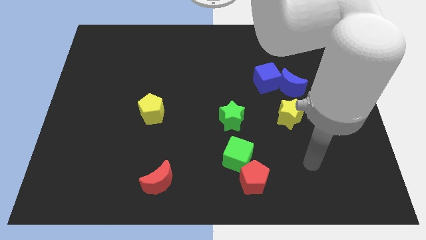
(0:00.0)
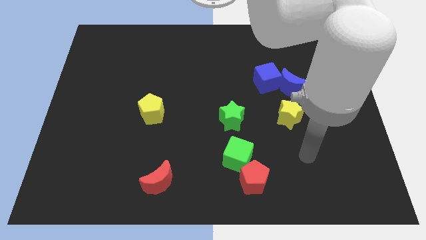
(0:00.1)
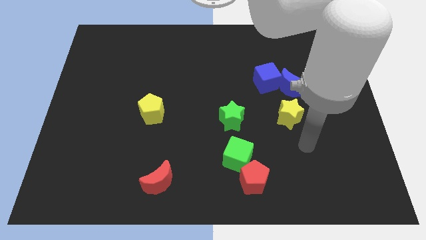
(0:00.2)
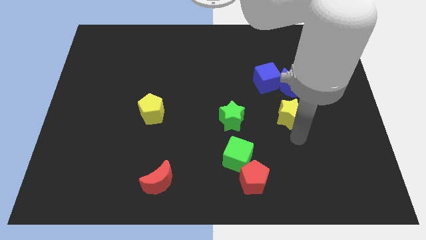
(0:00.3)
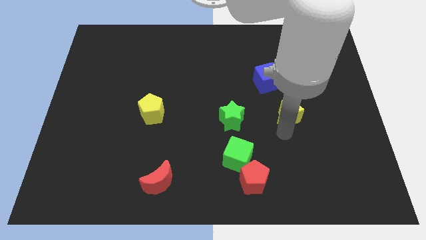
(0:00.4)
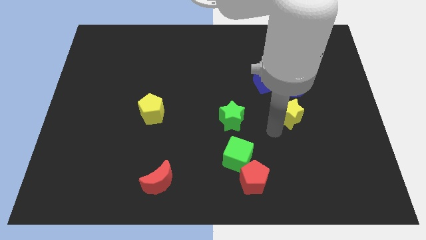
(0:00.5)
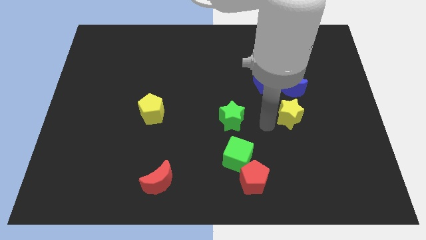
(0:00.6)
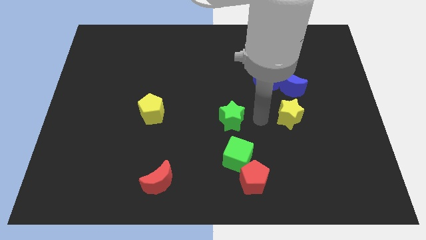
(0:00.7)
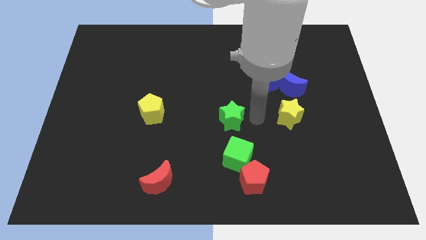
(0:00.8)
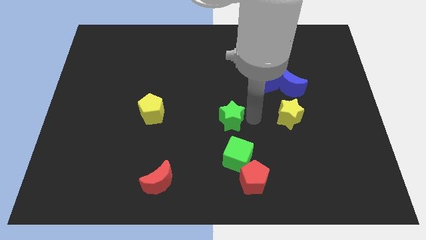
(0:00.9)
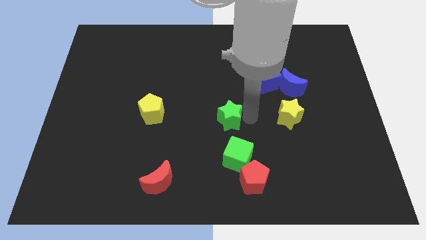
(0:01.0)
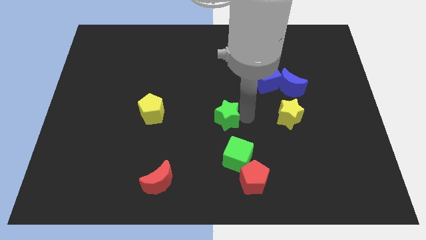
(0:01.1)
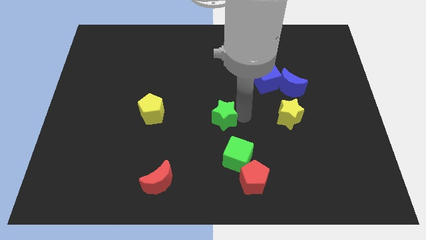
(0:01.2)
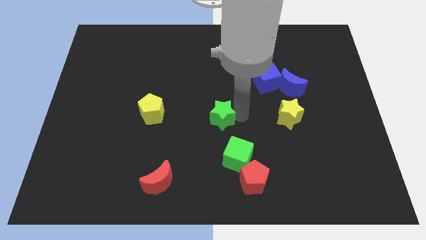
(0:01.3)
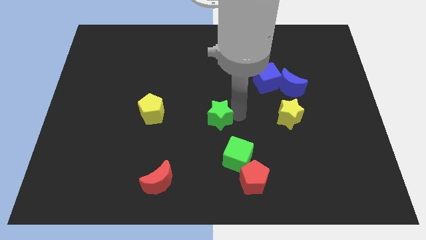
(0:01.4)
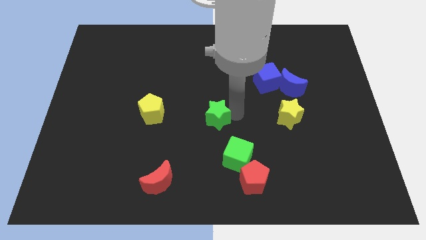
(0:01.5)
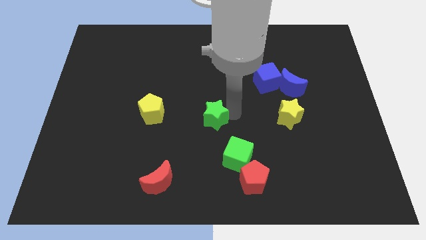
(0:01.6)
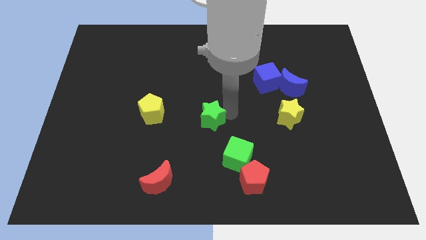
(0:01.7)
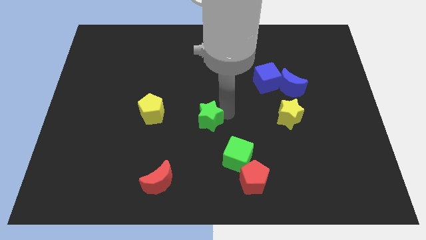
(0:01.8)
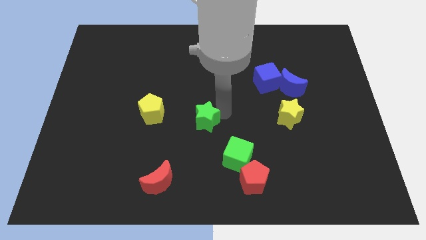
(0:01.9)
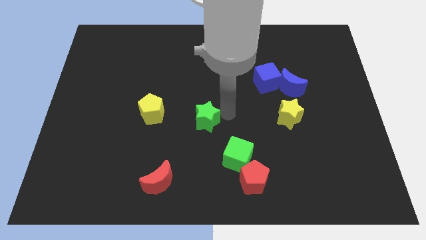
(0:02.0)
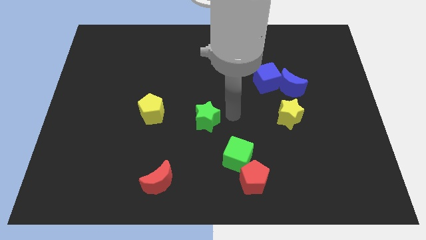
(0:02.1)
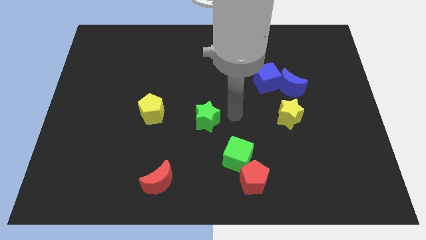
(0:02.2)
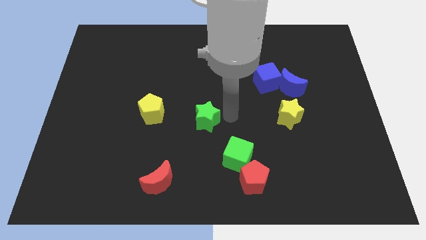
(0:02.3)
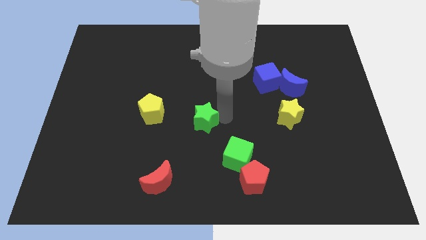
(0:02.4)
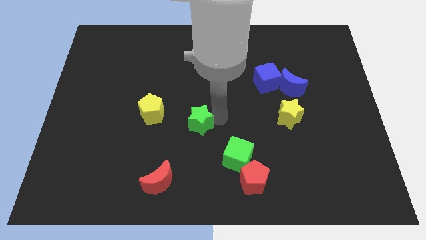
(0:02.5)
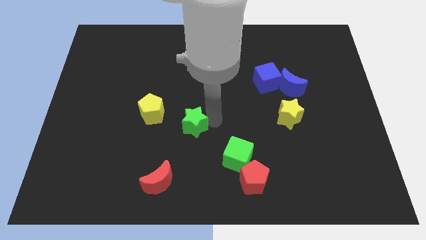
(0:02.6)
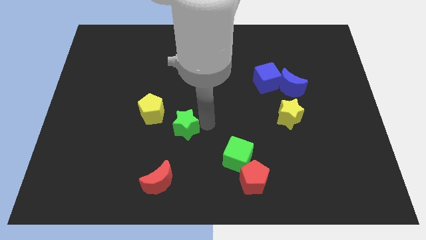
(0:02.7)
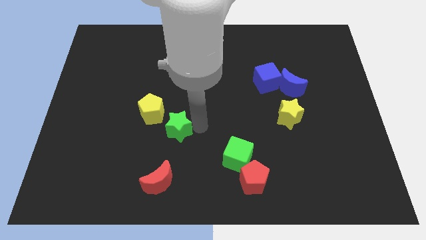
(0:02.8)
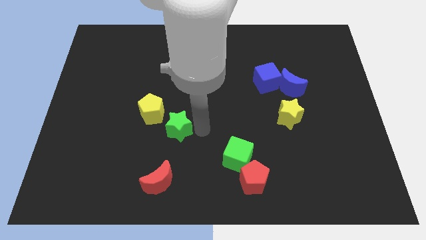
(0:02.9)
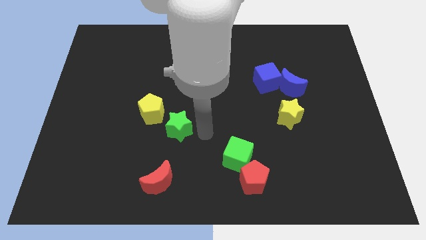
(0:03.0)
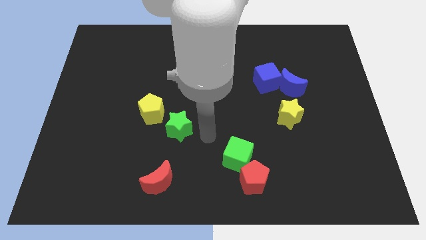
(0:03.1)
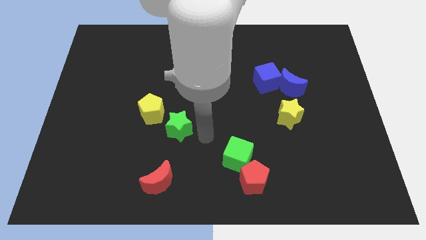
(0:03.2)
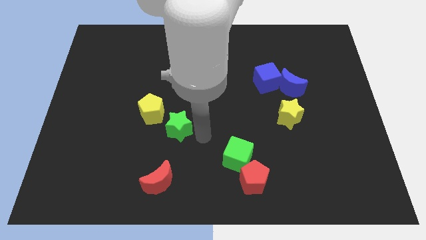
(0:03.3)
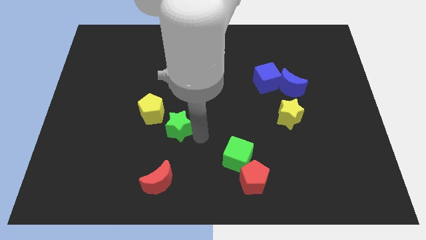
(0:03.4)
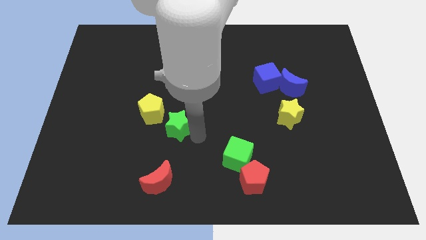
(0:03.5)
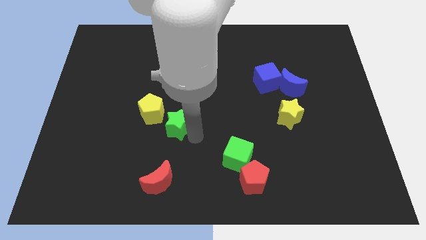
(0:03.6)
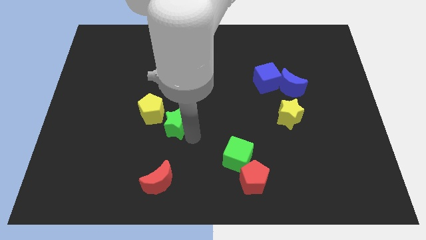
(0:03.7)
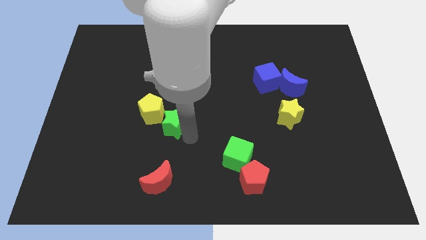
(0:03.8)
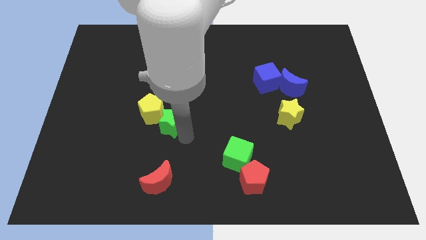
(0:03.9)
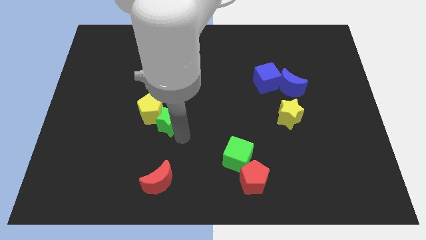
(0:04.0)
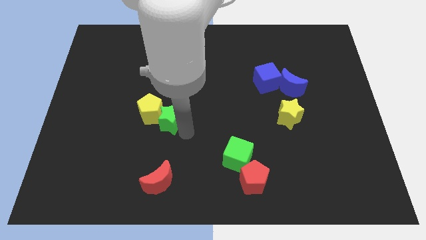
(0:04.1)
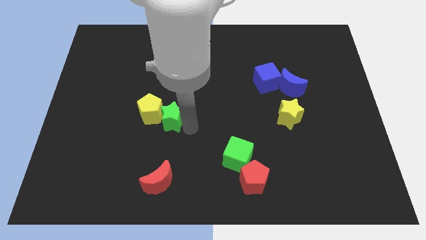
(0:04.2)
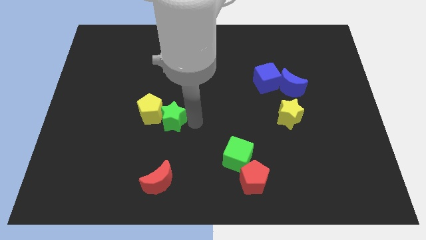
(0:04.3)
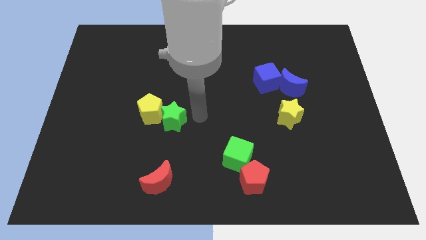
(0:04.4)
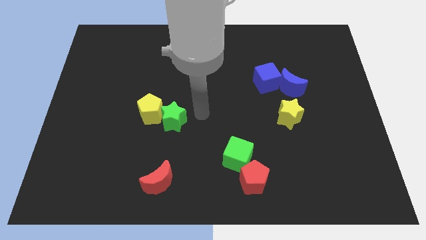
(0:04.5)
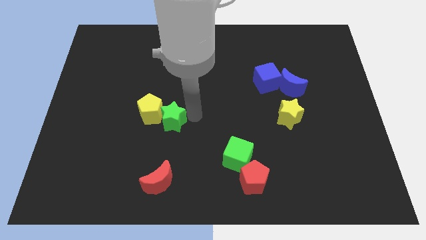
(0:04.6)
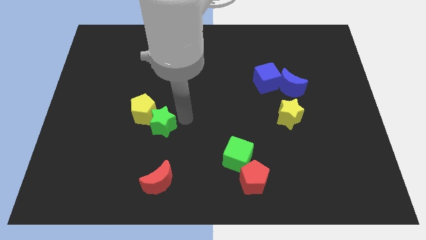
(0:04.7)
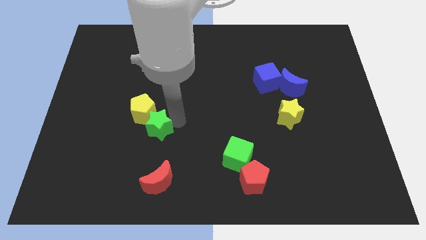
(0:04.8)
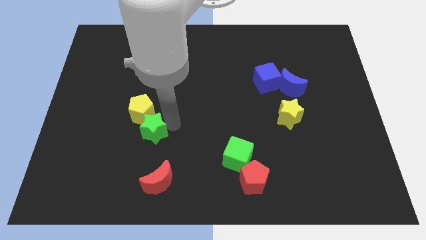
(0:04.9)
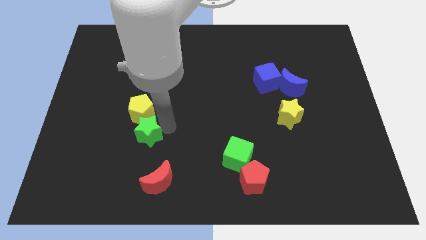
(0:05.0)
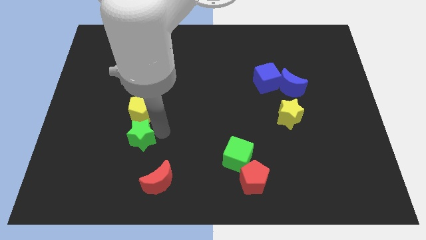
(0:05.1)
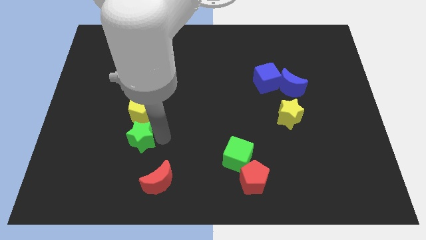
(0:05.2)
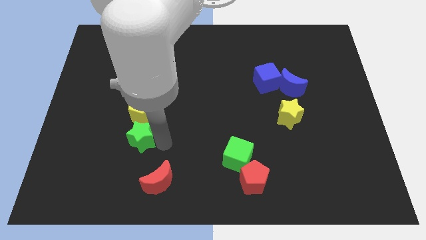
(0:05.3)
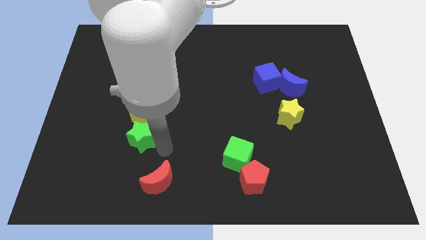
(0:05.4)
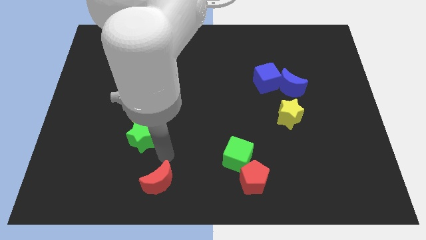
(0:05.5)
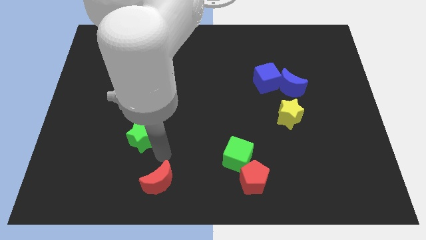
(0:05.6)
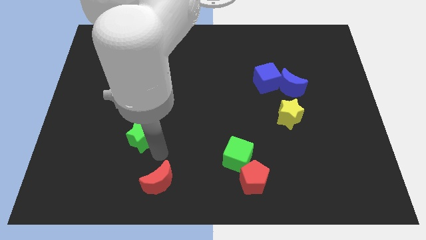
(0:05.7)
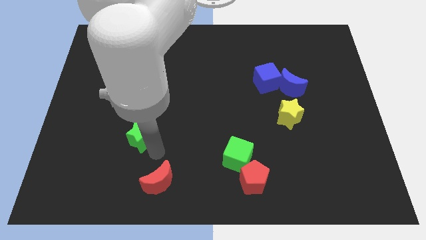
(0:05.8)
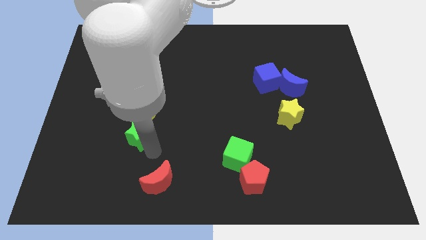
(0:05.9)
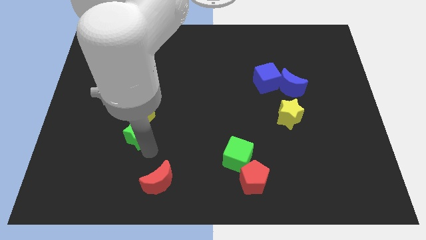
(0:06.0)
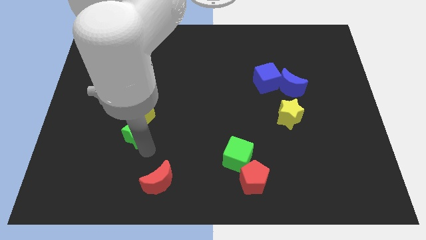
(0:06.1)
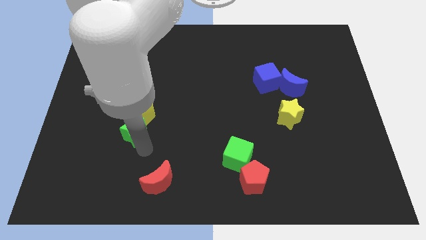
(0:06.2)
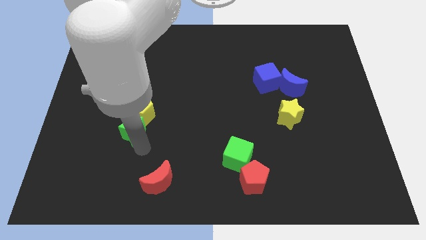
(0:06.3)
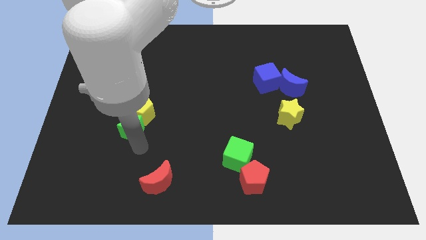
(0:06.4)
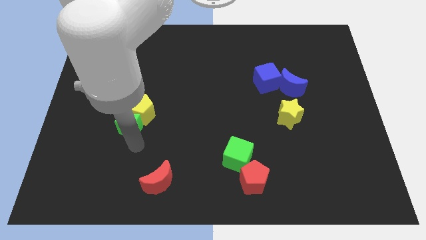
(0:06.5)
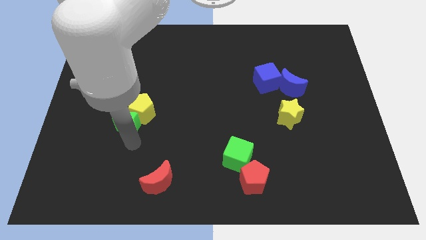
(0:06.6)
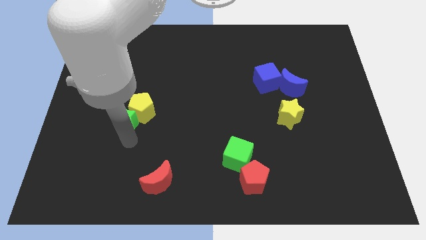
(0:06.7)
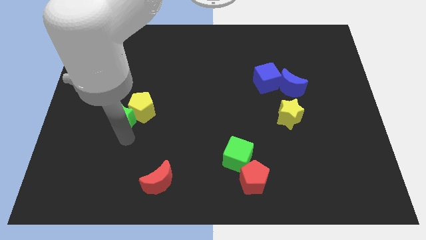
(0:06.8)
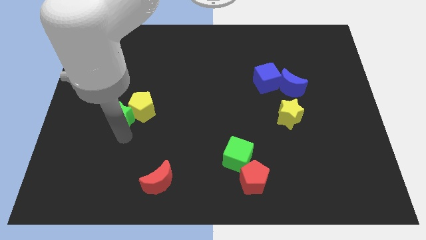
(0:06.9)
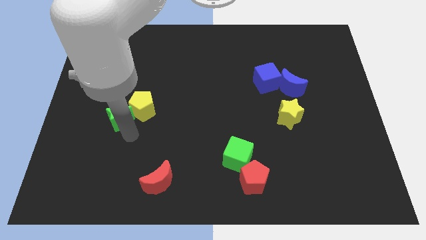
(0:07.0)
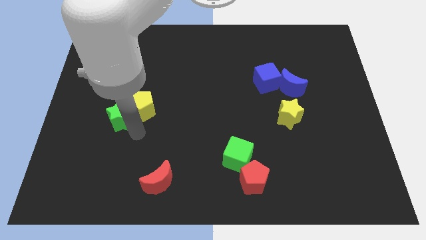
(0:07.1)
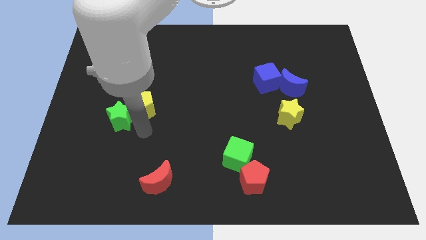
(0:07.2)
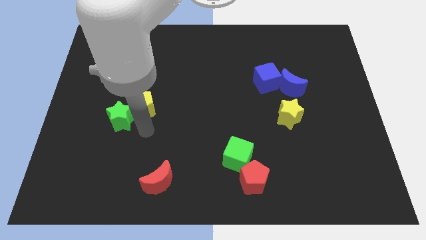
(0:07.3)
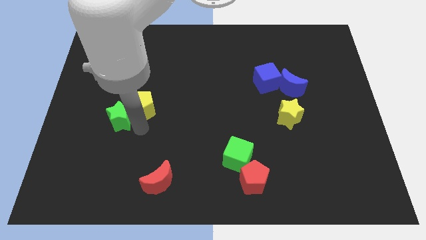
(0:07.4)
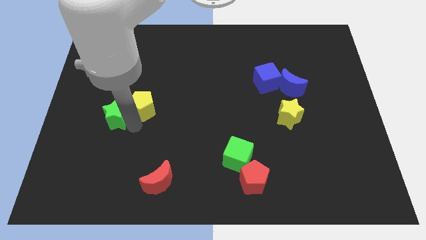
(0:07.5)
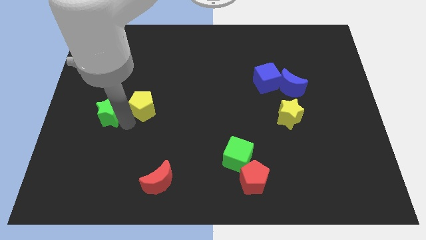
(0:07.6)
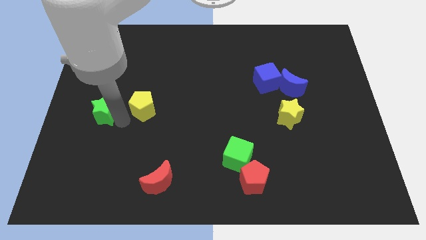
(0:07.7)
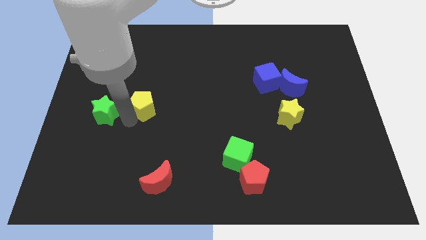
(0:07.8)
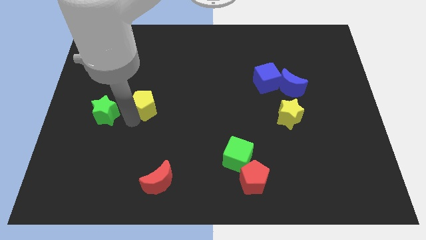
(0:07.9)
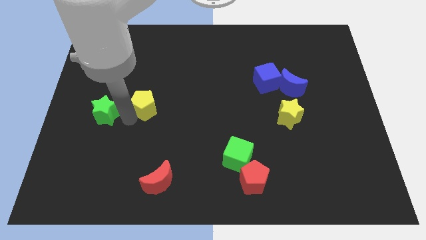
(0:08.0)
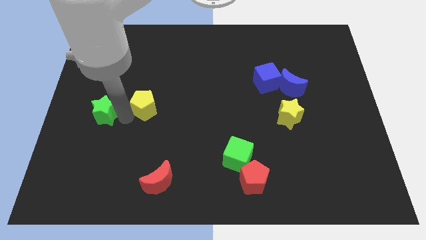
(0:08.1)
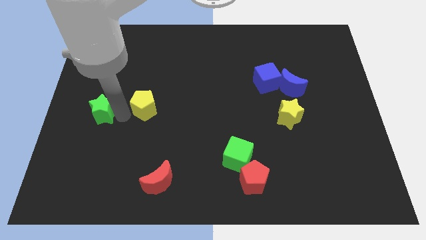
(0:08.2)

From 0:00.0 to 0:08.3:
move the green star to the left side
